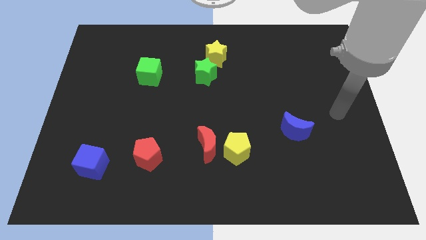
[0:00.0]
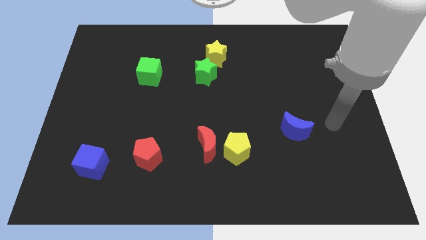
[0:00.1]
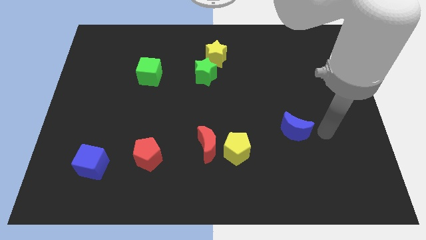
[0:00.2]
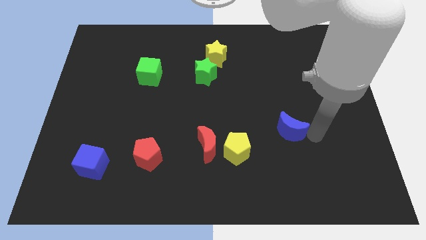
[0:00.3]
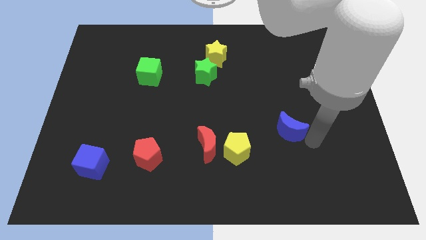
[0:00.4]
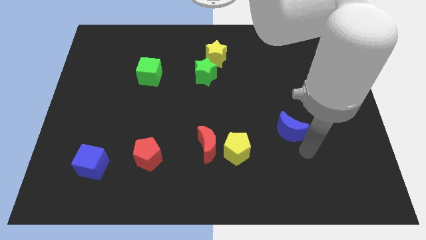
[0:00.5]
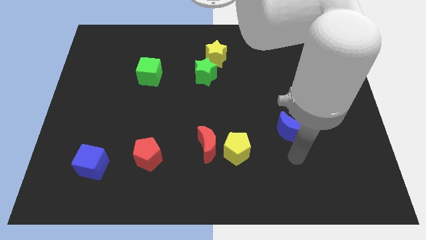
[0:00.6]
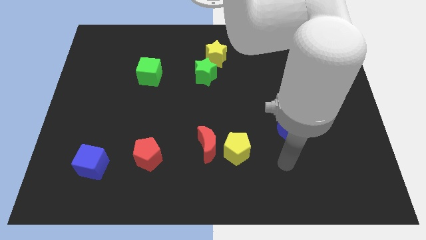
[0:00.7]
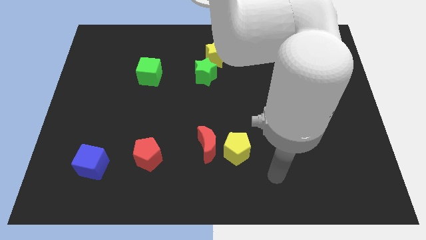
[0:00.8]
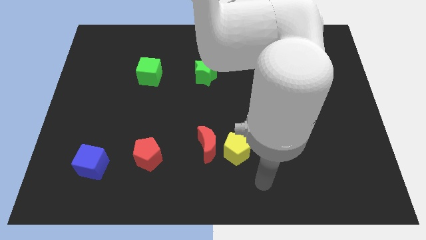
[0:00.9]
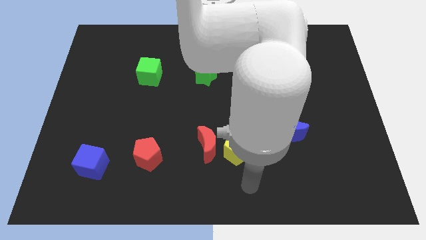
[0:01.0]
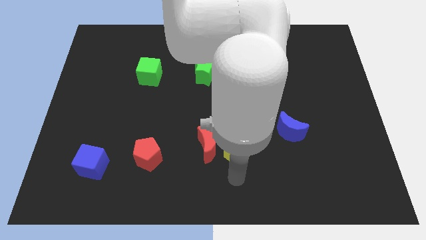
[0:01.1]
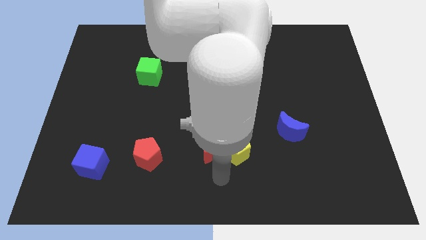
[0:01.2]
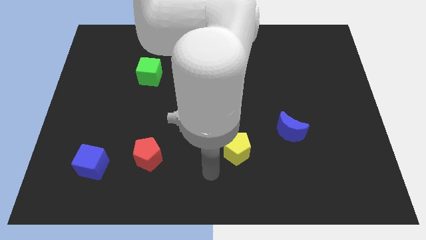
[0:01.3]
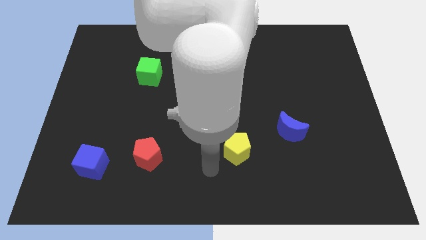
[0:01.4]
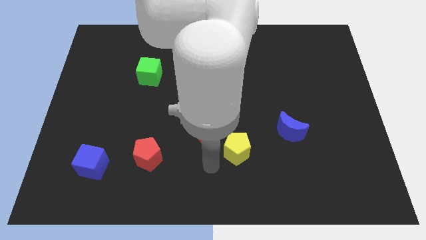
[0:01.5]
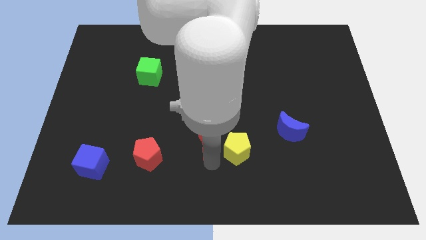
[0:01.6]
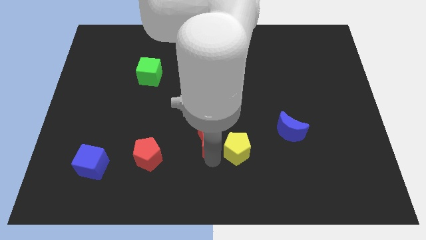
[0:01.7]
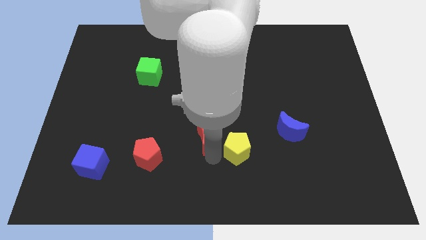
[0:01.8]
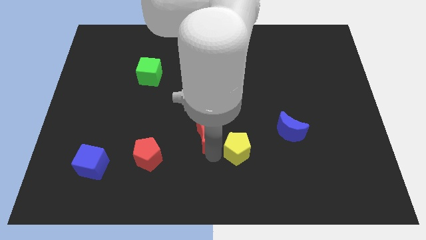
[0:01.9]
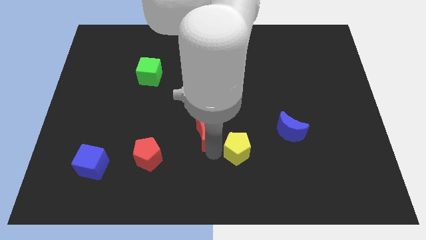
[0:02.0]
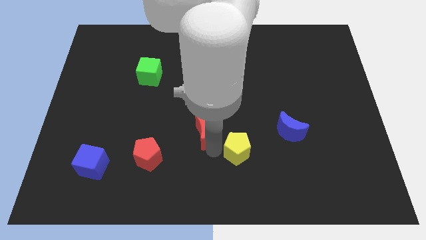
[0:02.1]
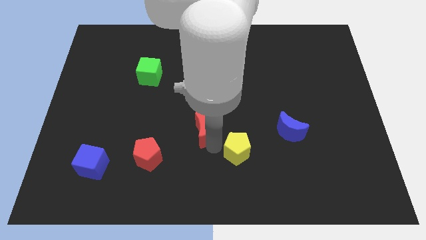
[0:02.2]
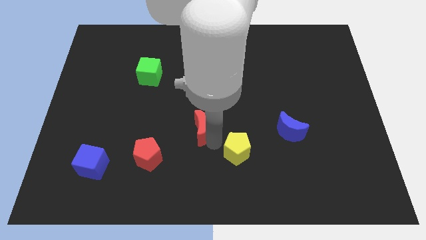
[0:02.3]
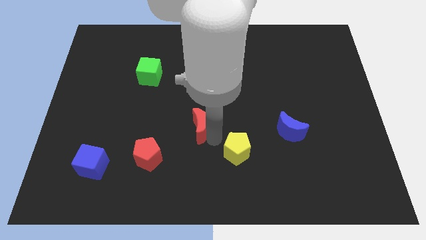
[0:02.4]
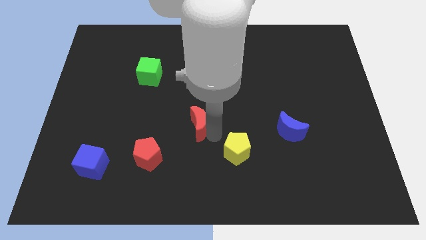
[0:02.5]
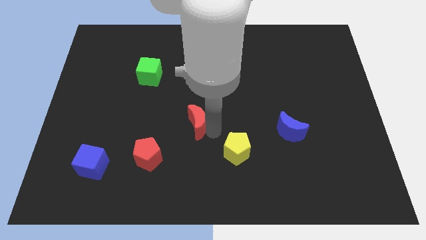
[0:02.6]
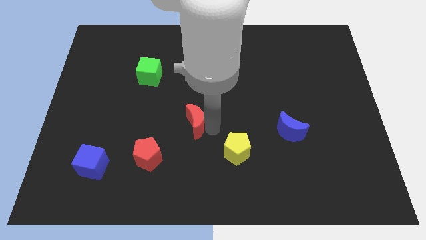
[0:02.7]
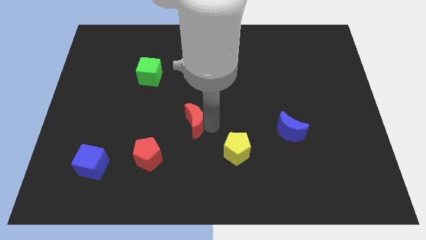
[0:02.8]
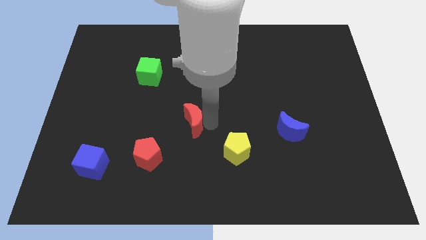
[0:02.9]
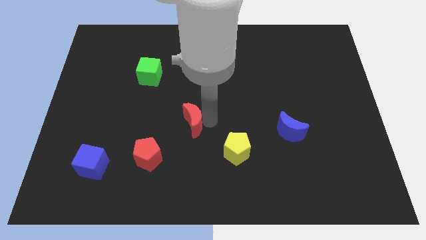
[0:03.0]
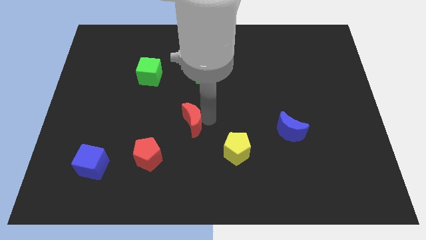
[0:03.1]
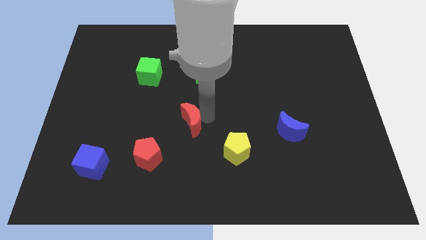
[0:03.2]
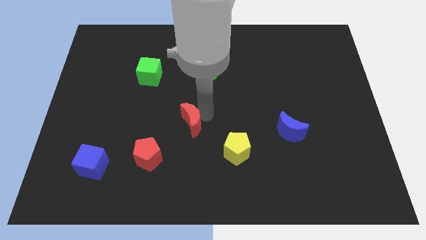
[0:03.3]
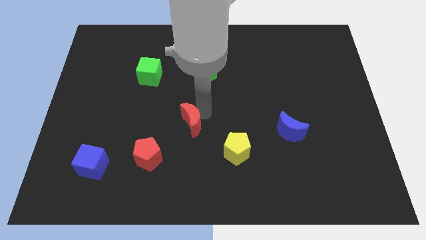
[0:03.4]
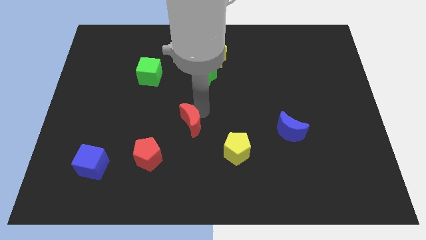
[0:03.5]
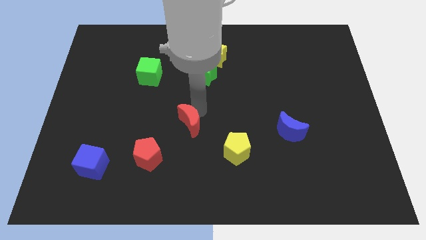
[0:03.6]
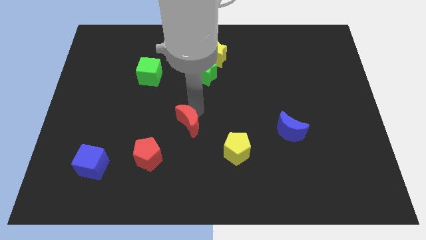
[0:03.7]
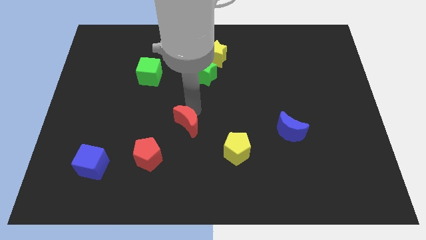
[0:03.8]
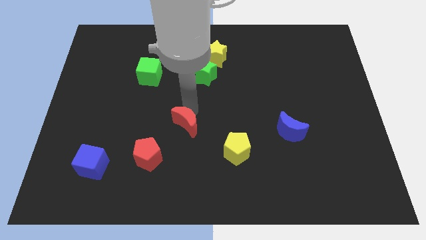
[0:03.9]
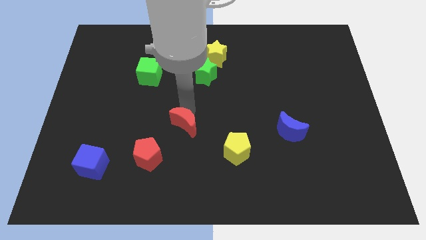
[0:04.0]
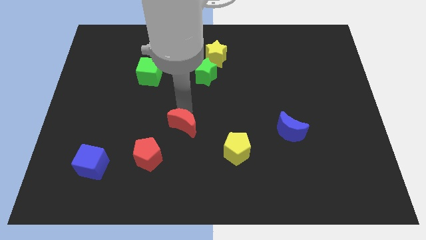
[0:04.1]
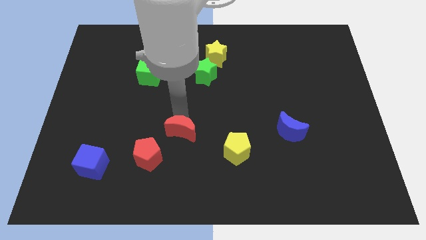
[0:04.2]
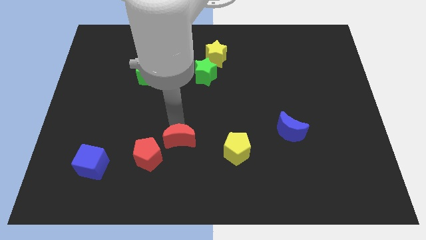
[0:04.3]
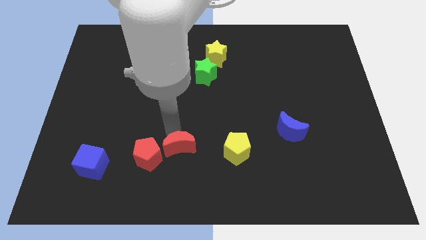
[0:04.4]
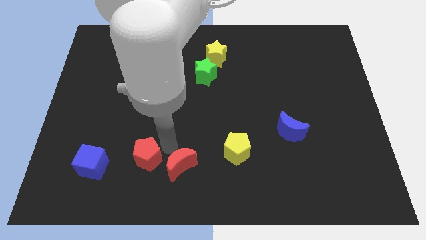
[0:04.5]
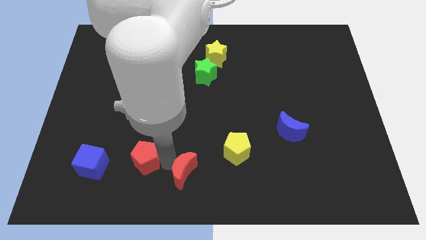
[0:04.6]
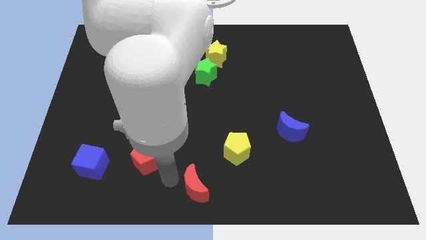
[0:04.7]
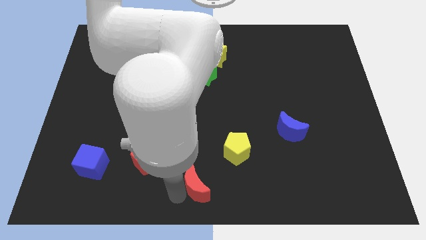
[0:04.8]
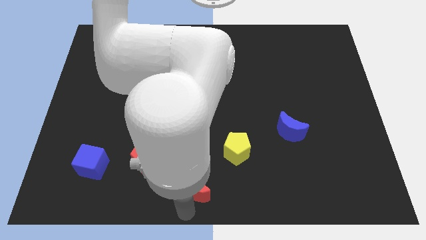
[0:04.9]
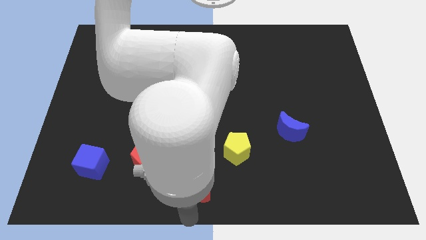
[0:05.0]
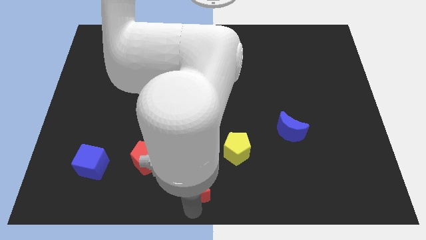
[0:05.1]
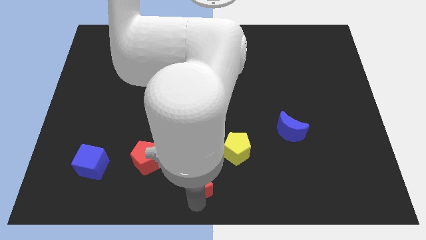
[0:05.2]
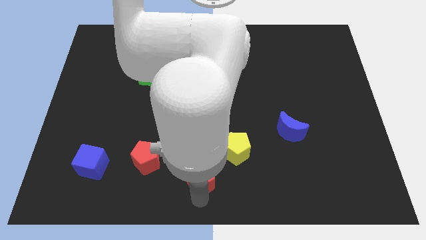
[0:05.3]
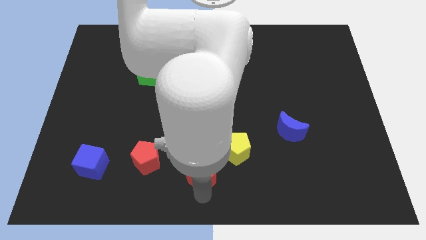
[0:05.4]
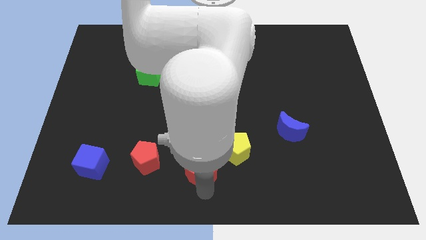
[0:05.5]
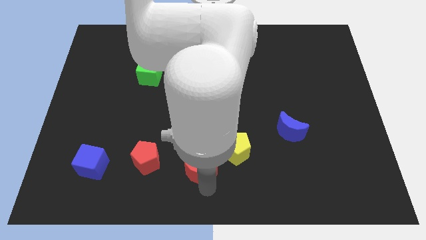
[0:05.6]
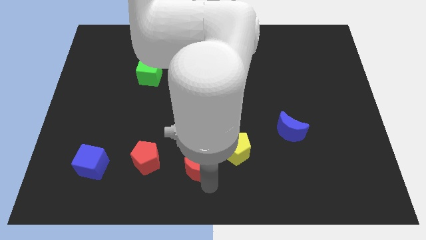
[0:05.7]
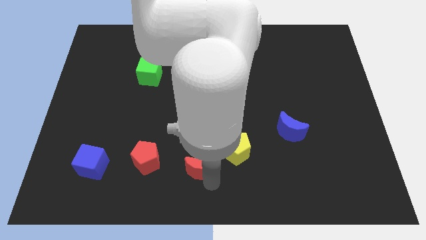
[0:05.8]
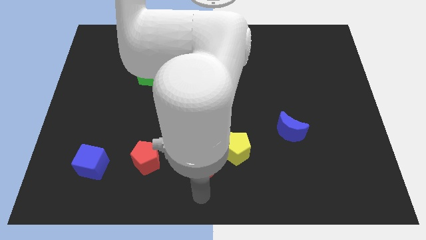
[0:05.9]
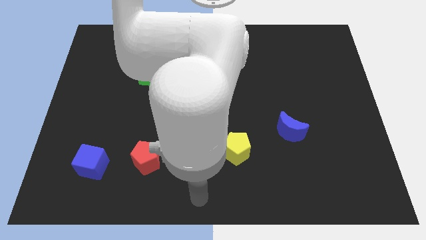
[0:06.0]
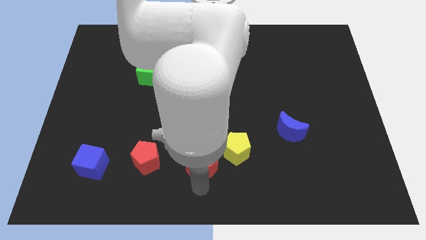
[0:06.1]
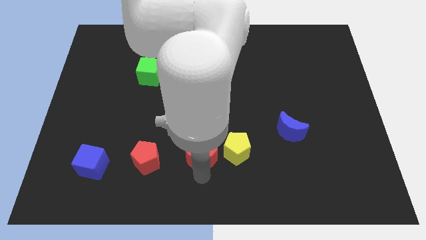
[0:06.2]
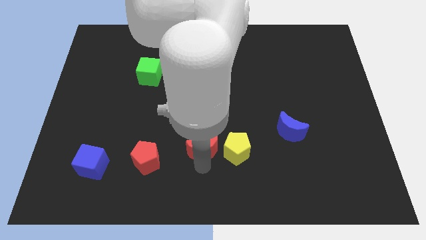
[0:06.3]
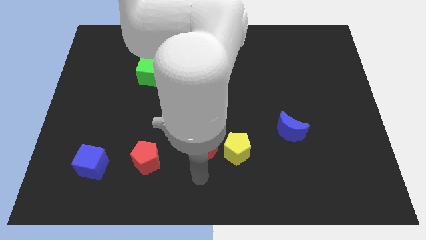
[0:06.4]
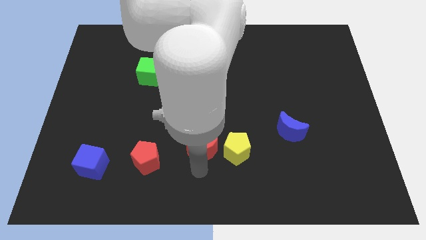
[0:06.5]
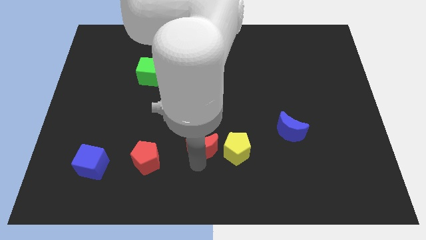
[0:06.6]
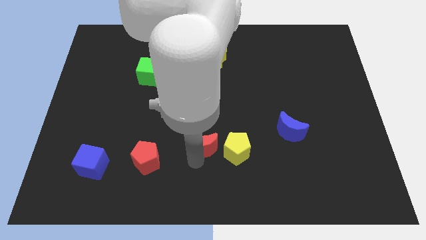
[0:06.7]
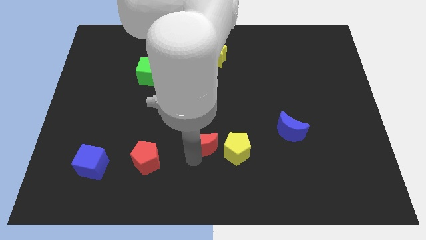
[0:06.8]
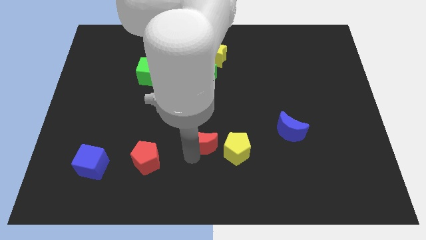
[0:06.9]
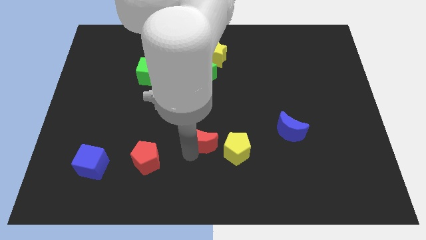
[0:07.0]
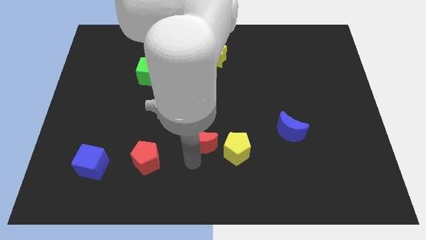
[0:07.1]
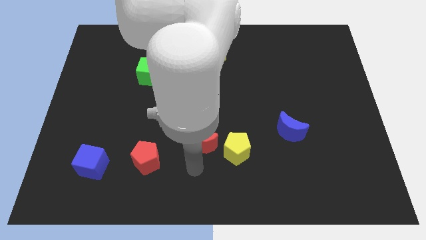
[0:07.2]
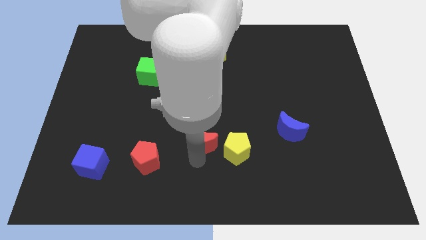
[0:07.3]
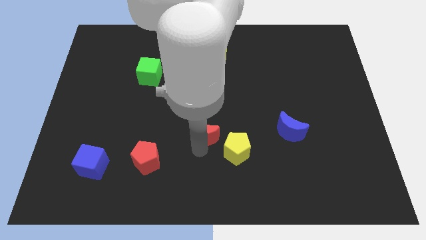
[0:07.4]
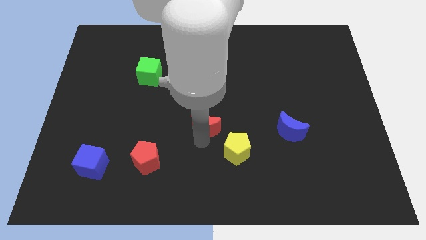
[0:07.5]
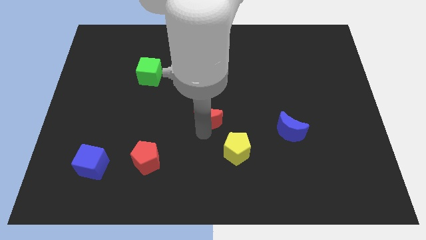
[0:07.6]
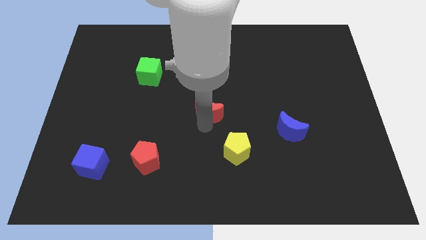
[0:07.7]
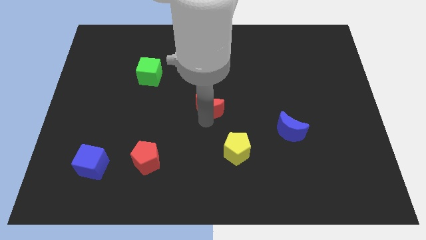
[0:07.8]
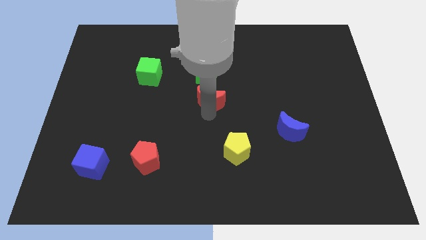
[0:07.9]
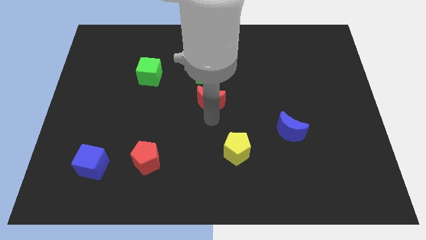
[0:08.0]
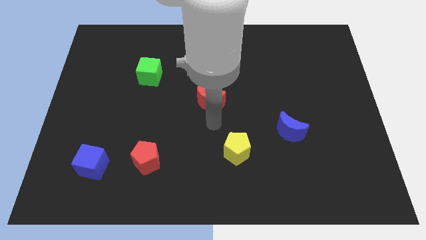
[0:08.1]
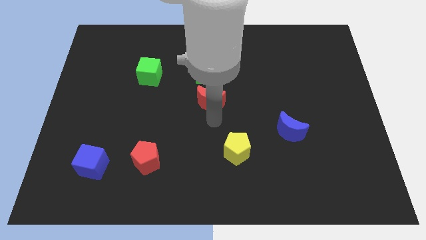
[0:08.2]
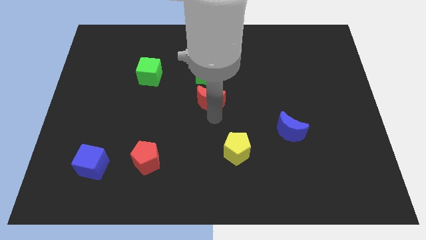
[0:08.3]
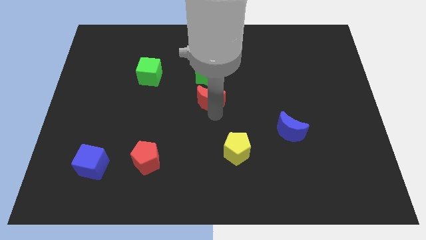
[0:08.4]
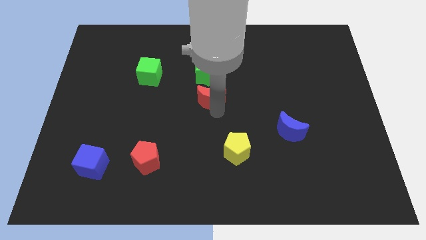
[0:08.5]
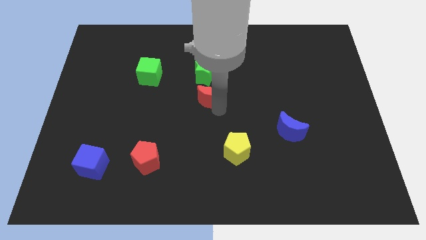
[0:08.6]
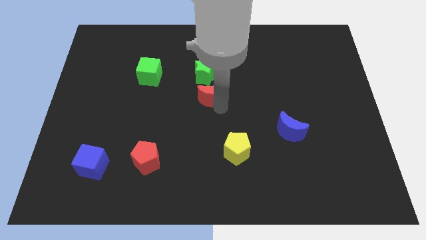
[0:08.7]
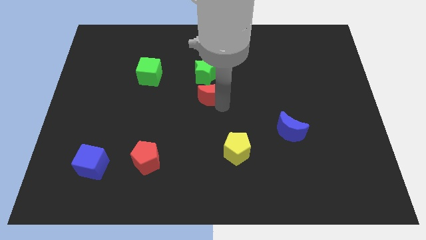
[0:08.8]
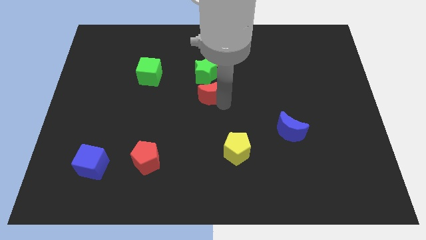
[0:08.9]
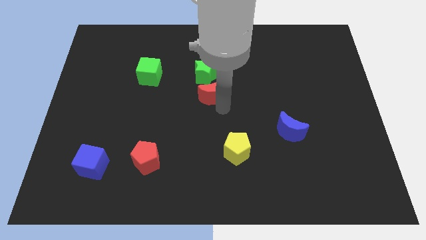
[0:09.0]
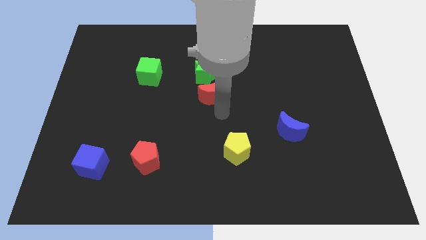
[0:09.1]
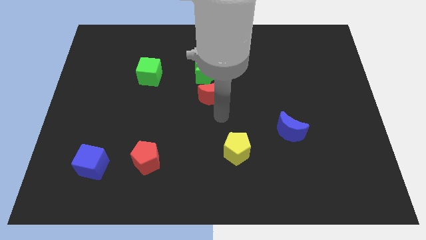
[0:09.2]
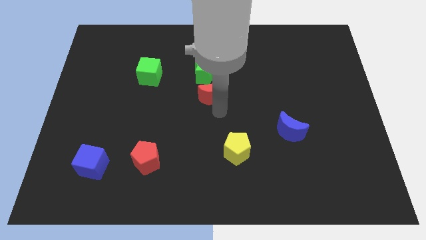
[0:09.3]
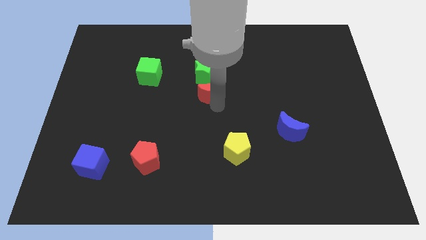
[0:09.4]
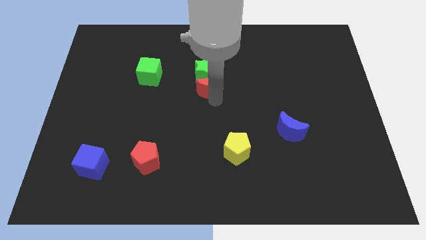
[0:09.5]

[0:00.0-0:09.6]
slide the red moon next to the green star
